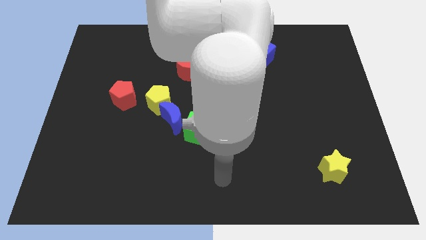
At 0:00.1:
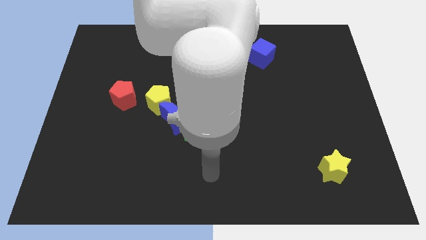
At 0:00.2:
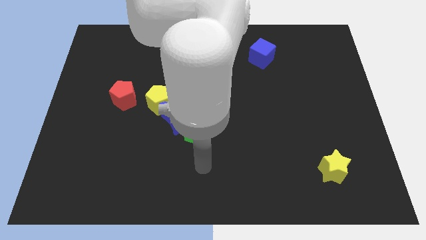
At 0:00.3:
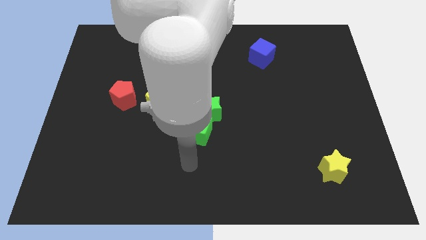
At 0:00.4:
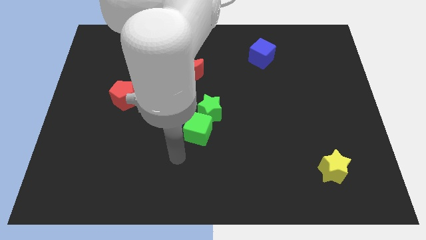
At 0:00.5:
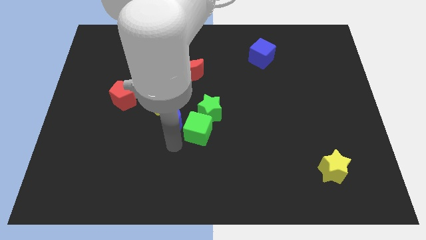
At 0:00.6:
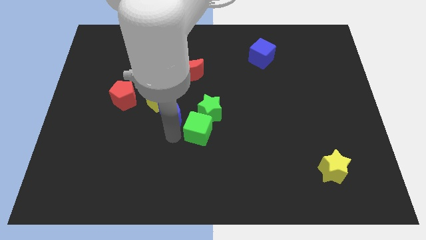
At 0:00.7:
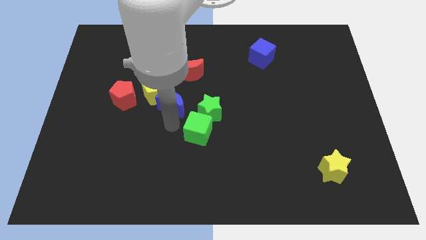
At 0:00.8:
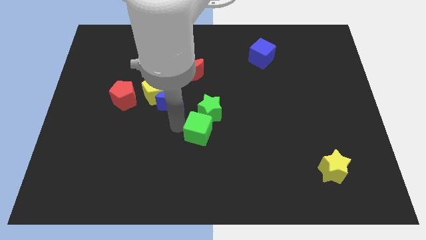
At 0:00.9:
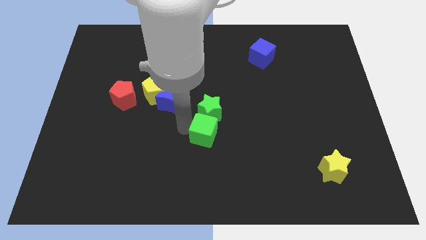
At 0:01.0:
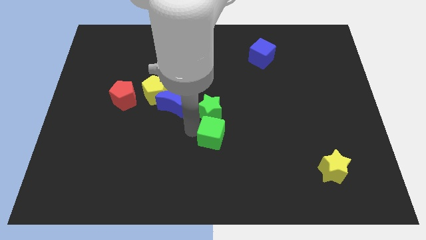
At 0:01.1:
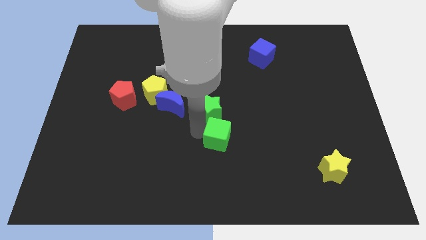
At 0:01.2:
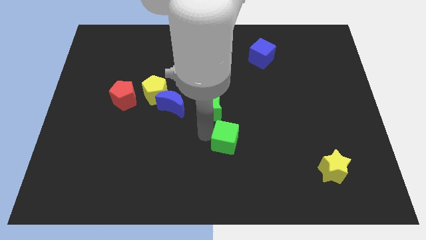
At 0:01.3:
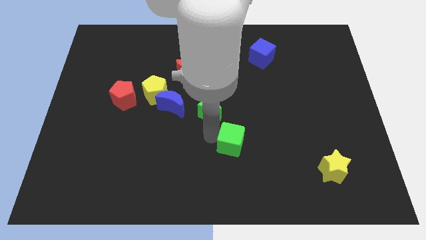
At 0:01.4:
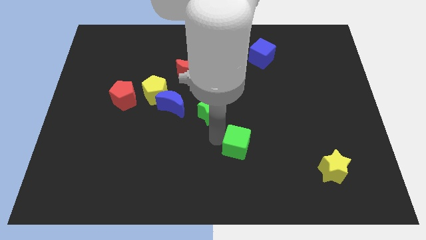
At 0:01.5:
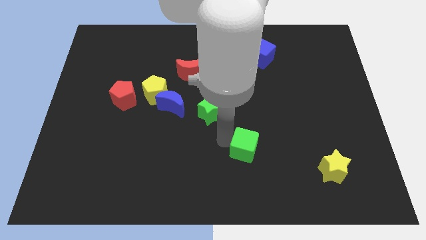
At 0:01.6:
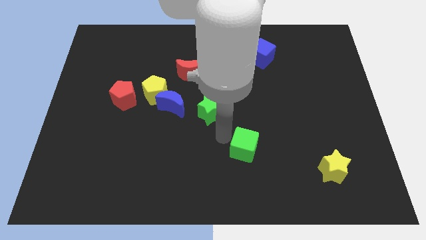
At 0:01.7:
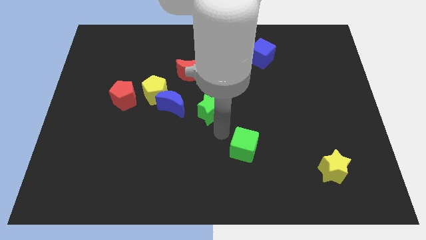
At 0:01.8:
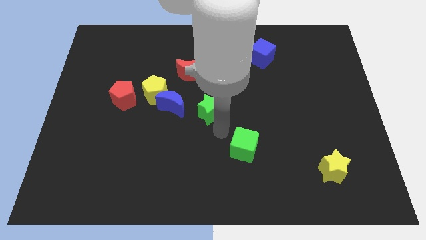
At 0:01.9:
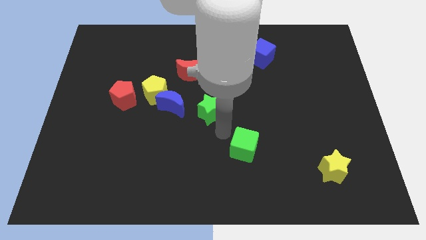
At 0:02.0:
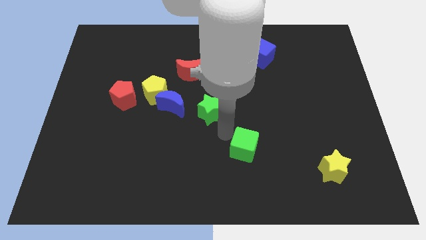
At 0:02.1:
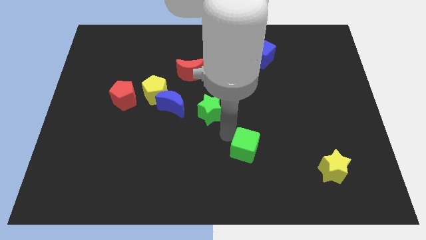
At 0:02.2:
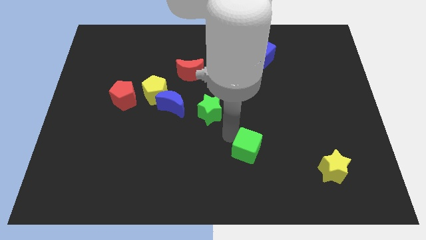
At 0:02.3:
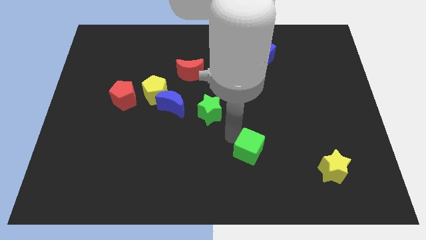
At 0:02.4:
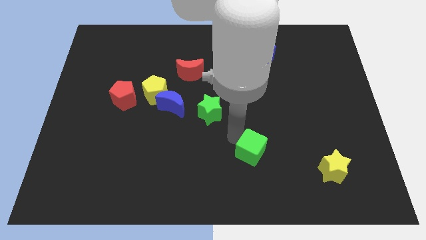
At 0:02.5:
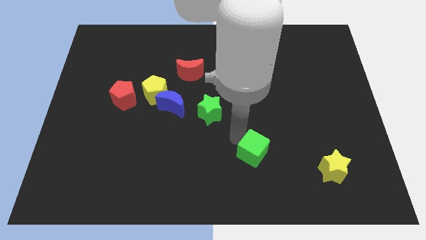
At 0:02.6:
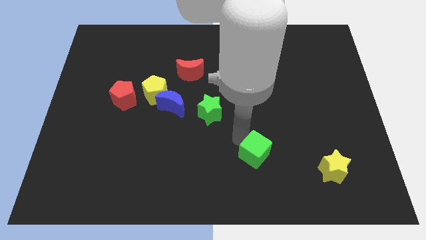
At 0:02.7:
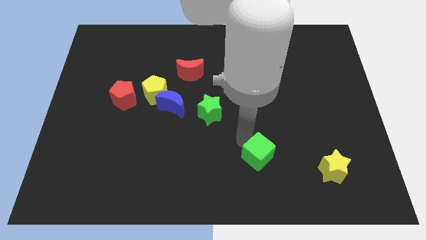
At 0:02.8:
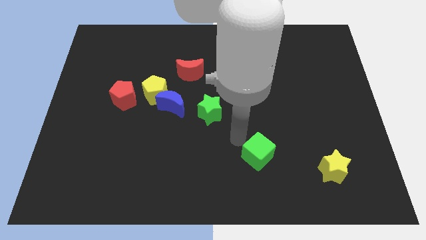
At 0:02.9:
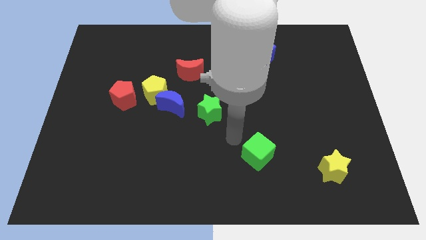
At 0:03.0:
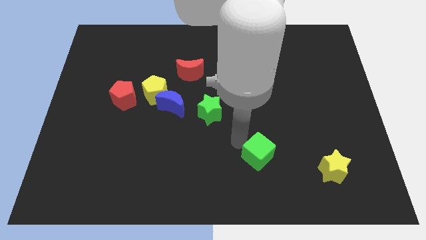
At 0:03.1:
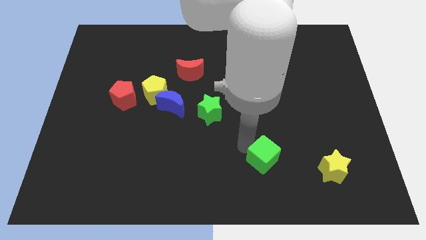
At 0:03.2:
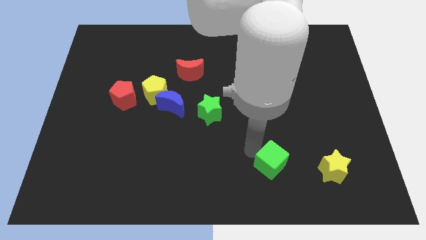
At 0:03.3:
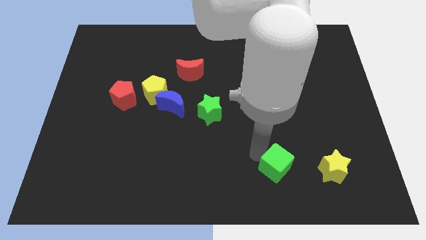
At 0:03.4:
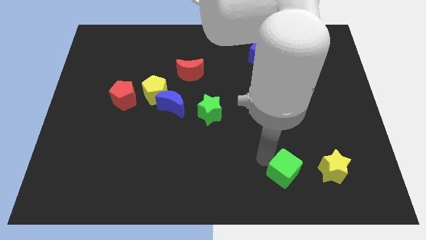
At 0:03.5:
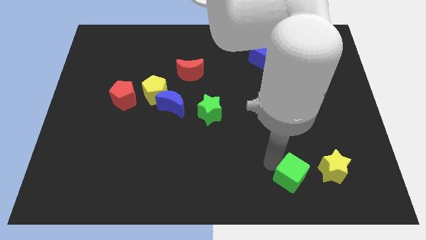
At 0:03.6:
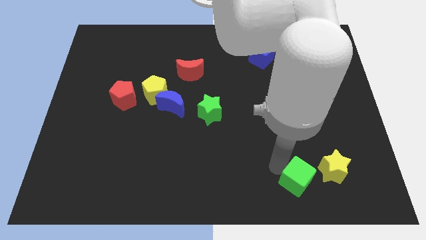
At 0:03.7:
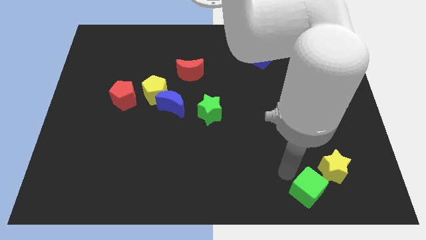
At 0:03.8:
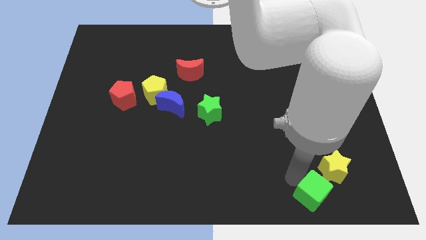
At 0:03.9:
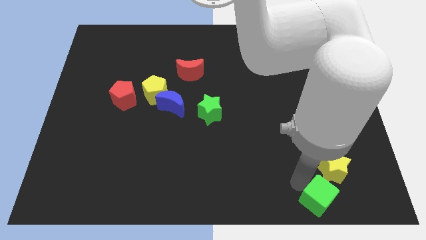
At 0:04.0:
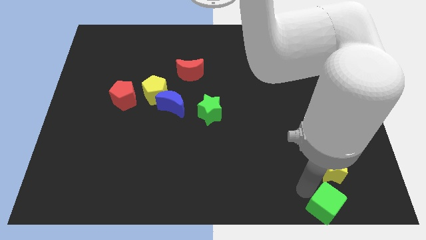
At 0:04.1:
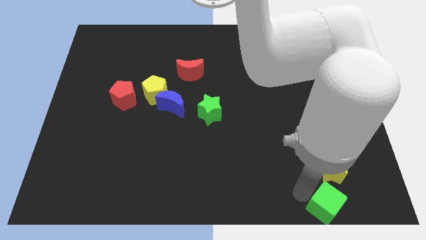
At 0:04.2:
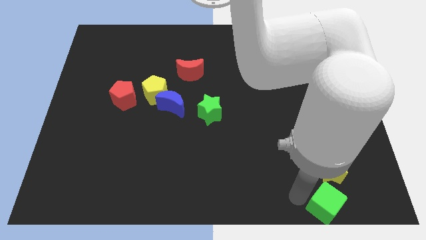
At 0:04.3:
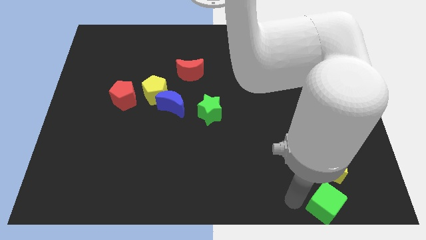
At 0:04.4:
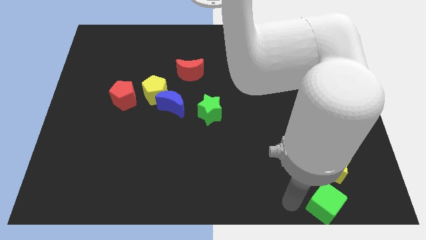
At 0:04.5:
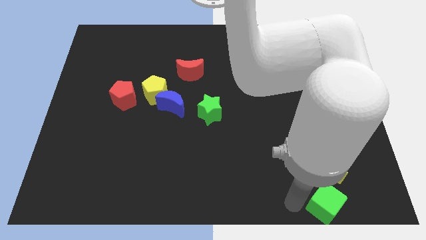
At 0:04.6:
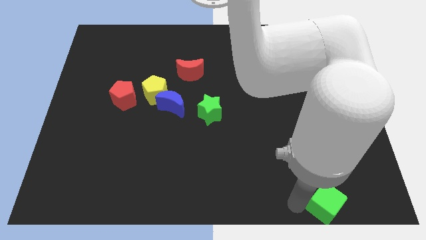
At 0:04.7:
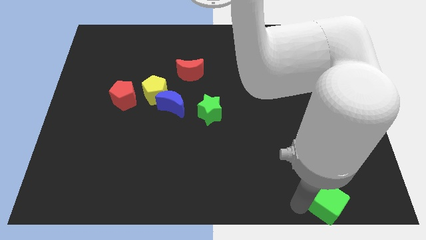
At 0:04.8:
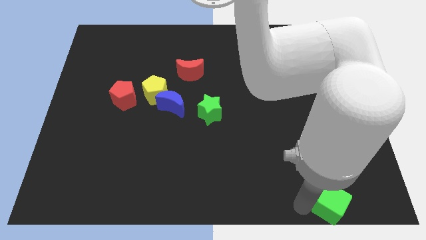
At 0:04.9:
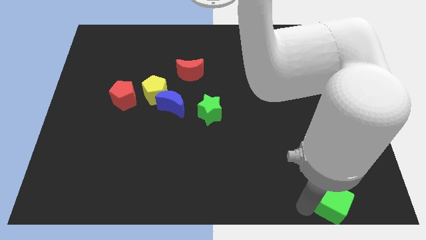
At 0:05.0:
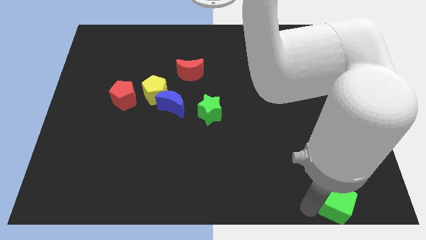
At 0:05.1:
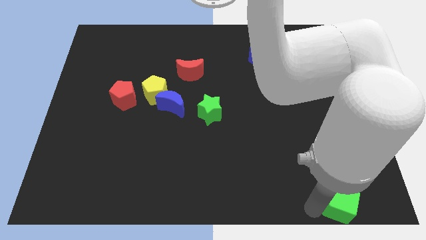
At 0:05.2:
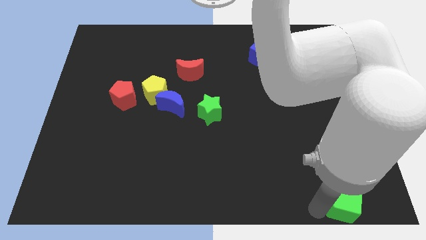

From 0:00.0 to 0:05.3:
push the green cube to the lower right corner

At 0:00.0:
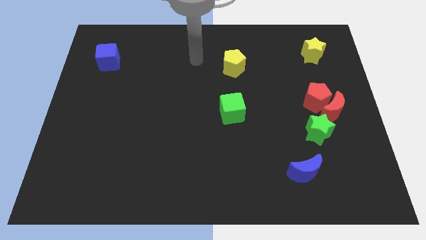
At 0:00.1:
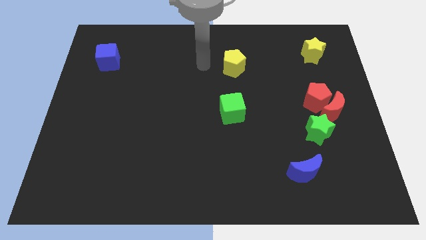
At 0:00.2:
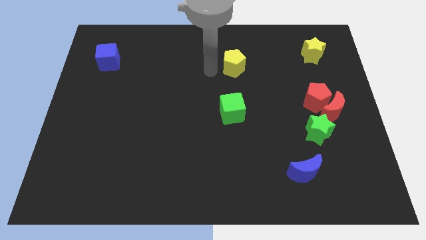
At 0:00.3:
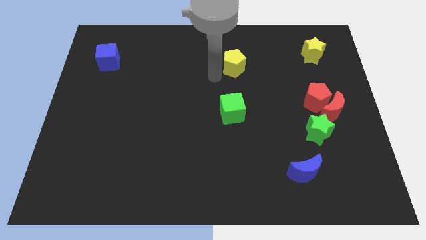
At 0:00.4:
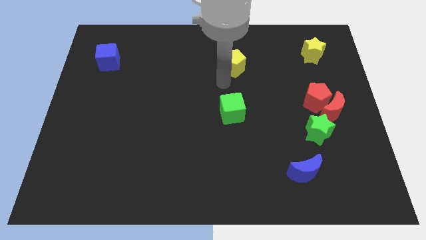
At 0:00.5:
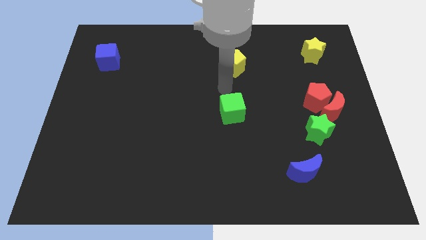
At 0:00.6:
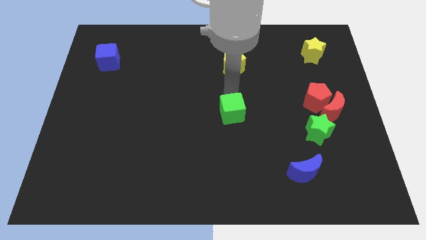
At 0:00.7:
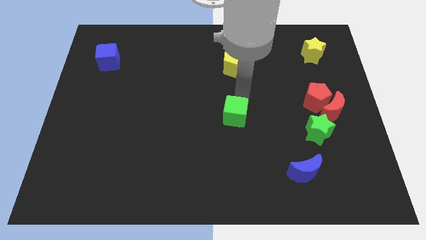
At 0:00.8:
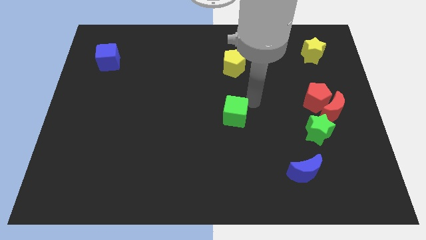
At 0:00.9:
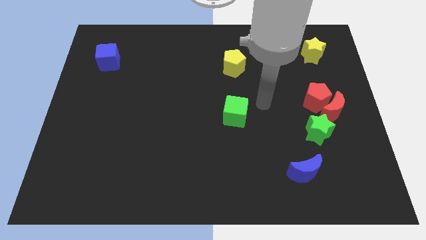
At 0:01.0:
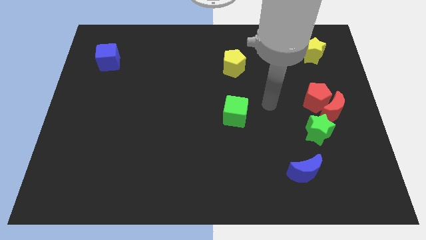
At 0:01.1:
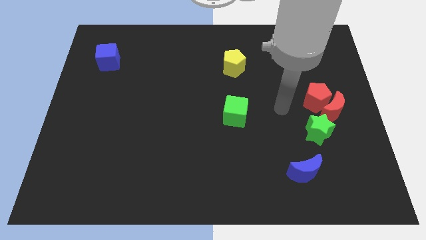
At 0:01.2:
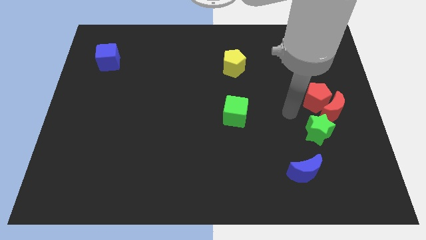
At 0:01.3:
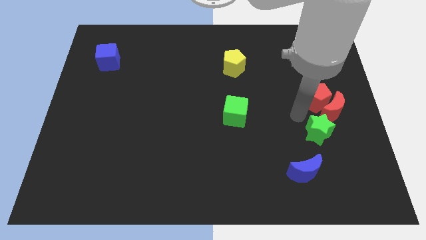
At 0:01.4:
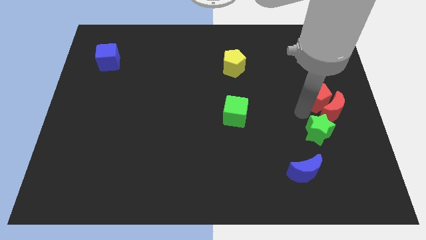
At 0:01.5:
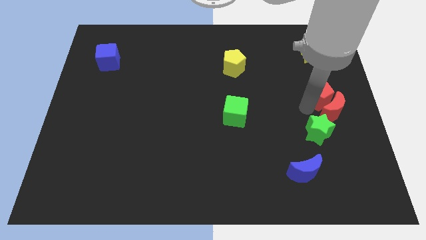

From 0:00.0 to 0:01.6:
move the red pentagon to the right side of the board
